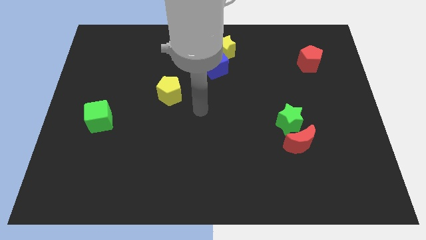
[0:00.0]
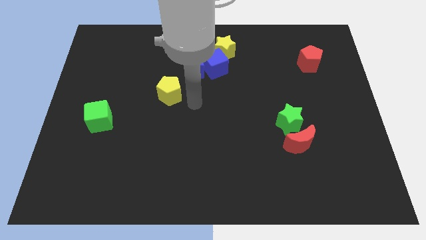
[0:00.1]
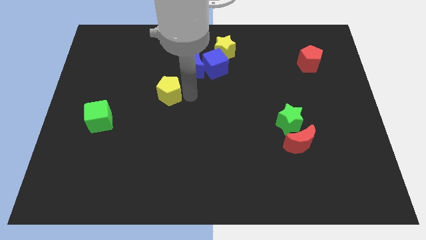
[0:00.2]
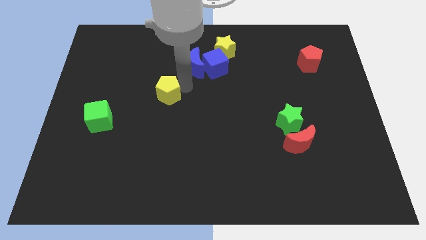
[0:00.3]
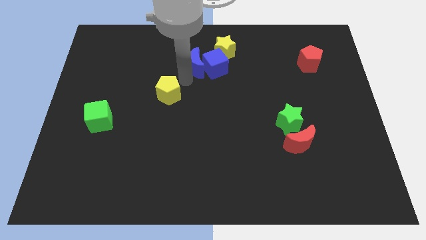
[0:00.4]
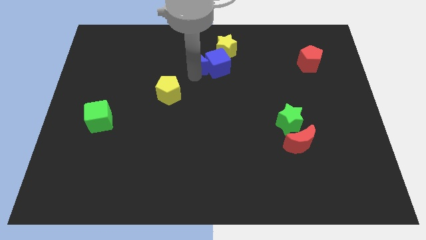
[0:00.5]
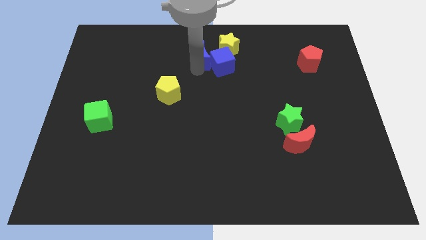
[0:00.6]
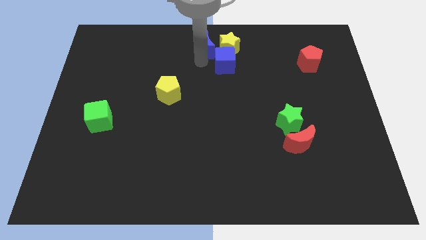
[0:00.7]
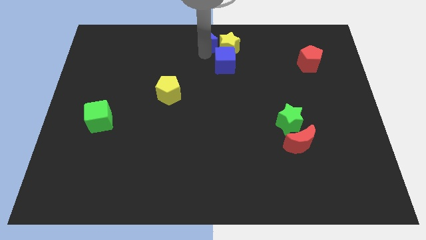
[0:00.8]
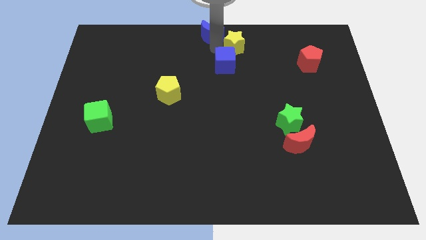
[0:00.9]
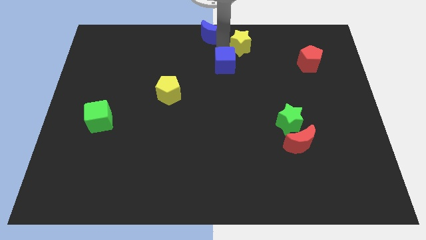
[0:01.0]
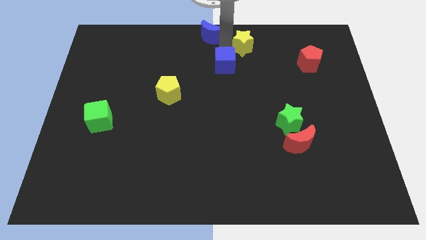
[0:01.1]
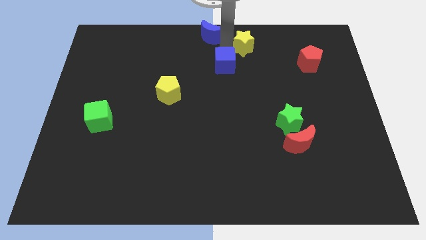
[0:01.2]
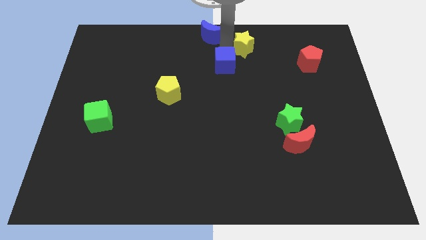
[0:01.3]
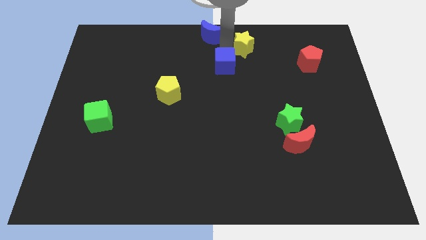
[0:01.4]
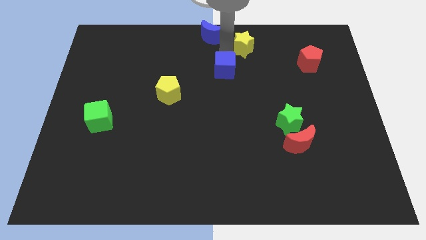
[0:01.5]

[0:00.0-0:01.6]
move the blue cube away from the blue moon and yellow star

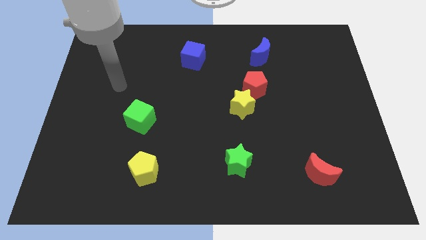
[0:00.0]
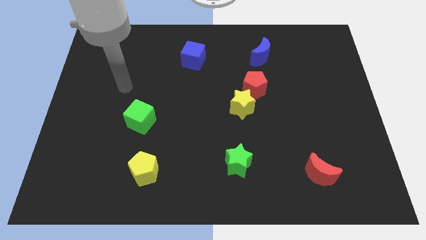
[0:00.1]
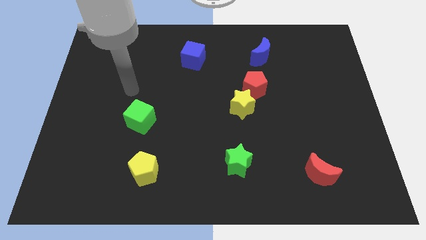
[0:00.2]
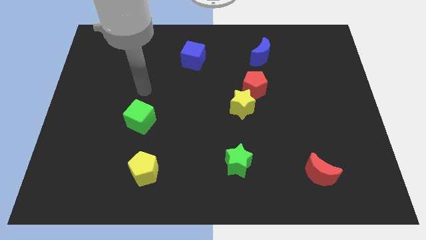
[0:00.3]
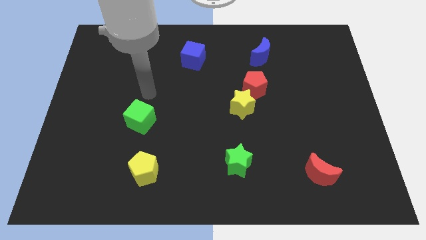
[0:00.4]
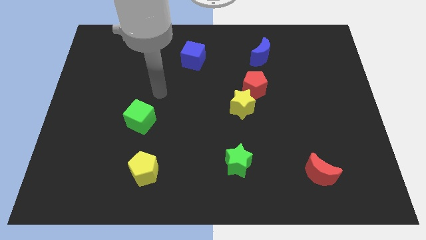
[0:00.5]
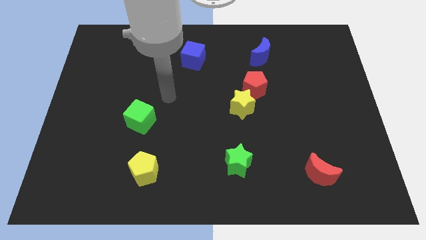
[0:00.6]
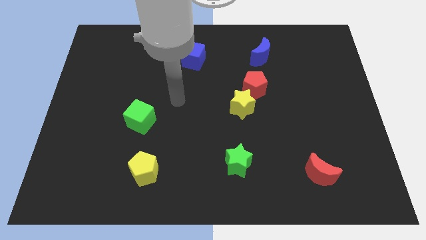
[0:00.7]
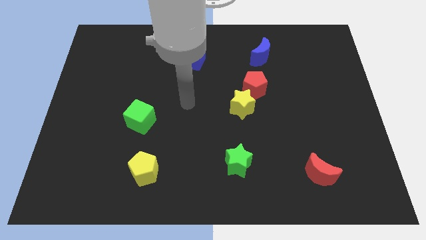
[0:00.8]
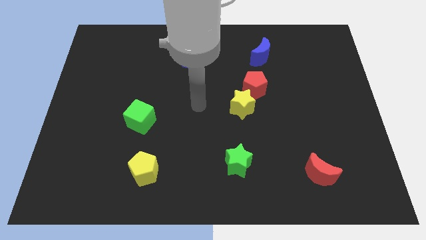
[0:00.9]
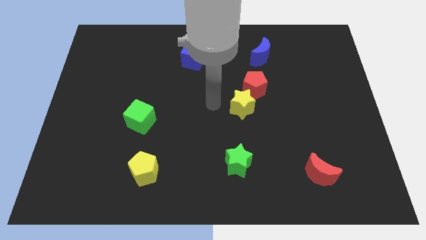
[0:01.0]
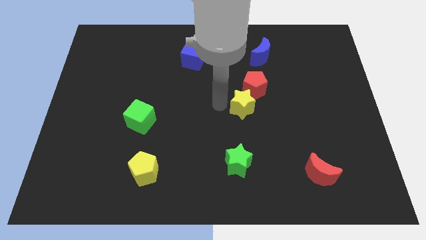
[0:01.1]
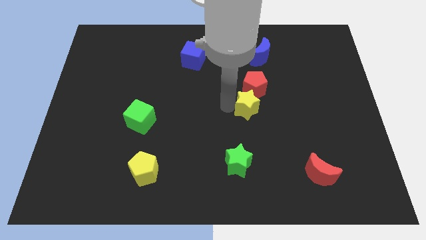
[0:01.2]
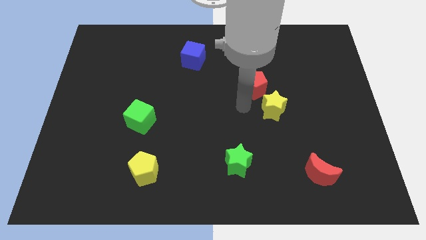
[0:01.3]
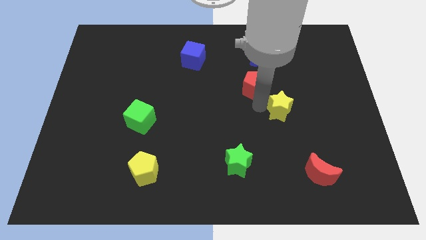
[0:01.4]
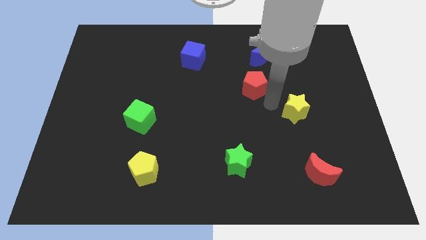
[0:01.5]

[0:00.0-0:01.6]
move the red pentagon away from the yellow star

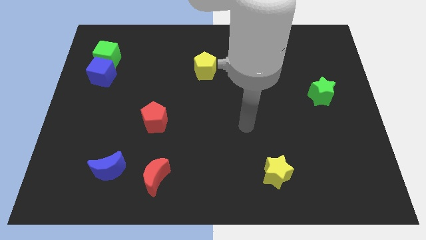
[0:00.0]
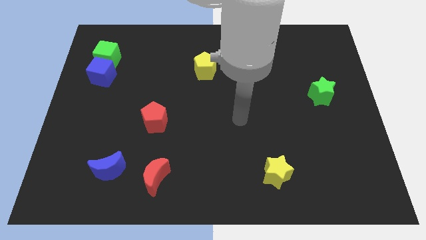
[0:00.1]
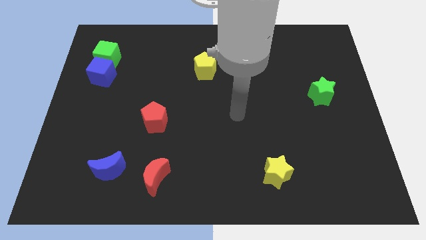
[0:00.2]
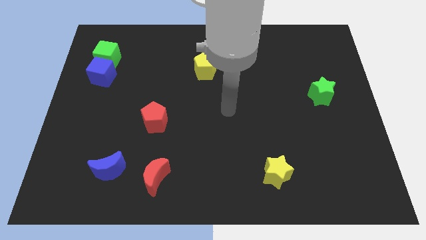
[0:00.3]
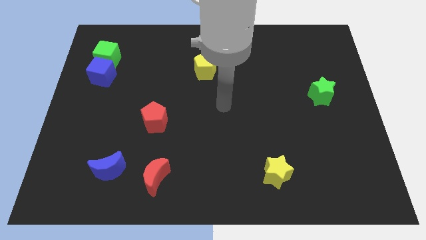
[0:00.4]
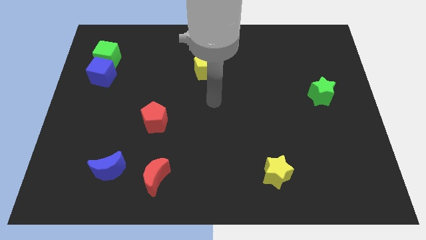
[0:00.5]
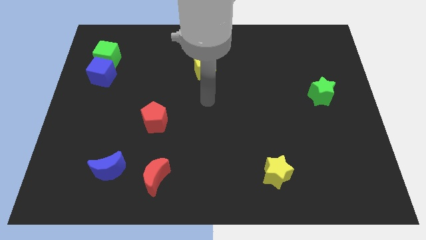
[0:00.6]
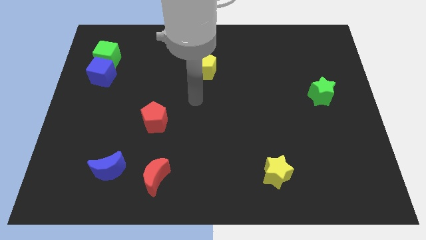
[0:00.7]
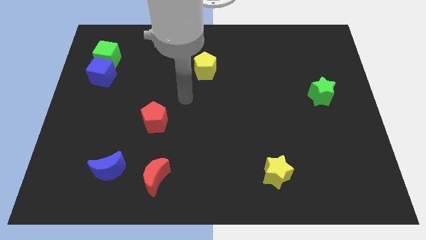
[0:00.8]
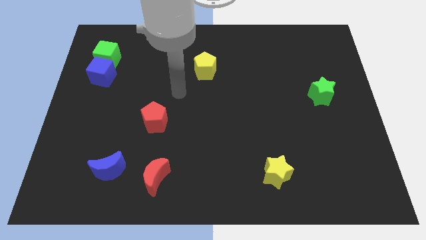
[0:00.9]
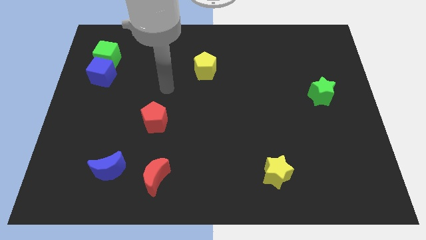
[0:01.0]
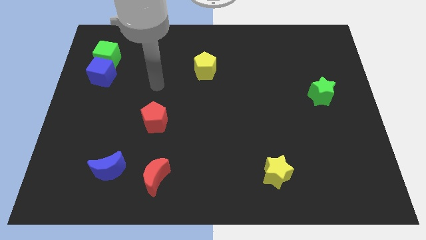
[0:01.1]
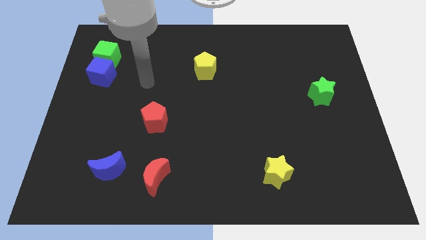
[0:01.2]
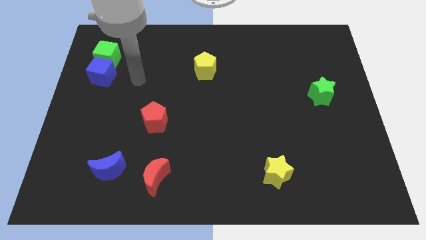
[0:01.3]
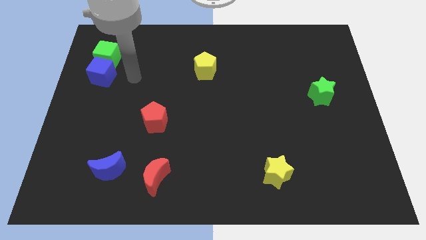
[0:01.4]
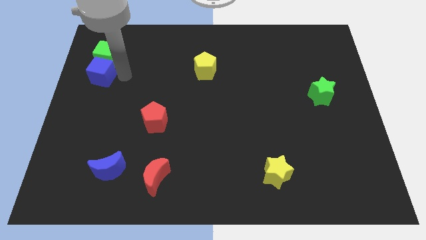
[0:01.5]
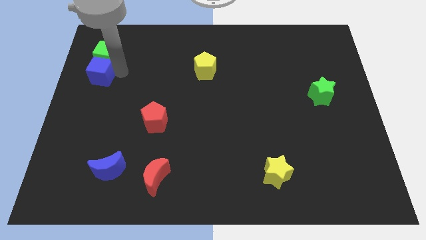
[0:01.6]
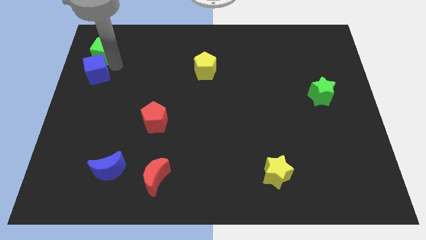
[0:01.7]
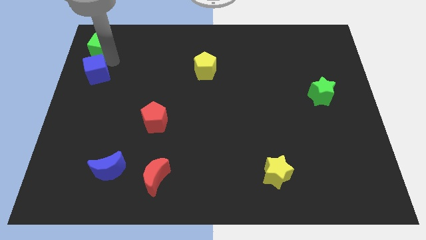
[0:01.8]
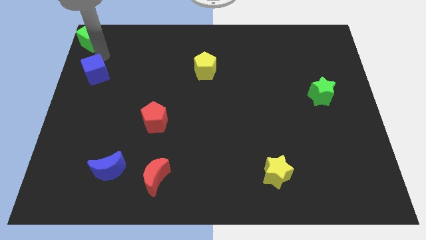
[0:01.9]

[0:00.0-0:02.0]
separate the blue cube from the green cube

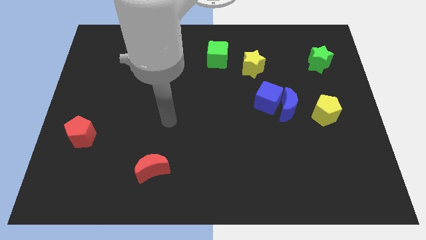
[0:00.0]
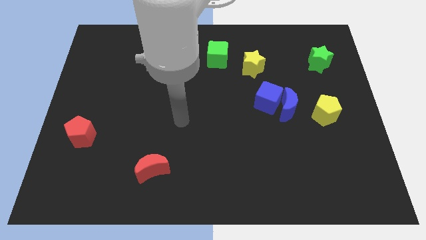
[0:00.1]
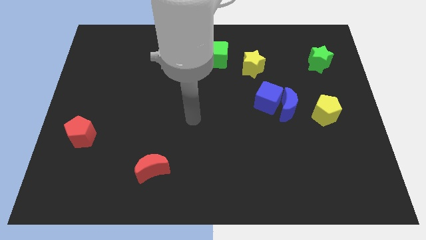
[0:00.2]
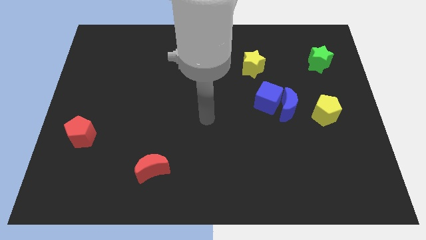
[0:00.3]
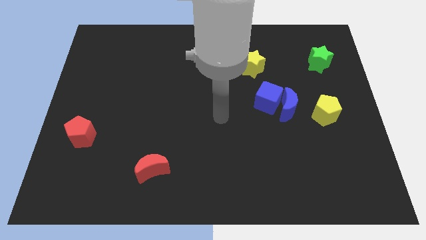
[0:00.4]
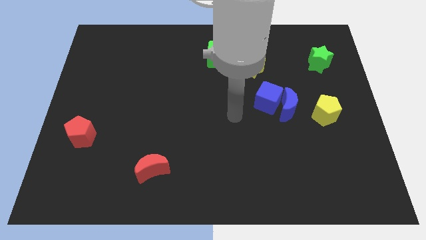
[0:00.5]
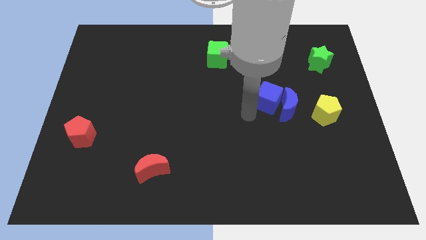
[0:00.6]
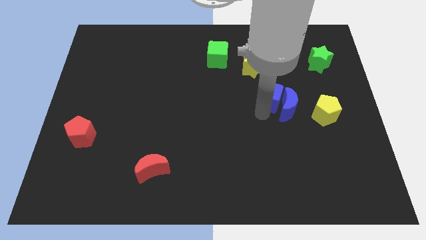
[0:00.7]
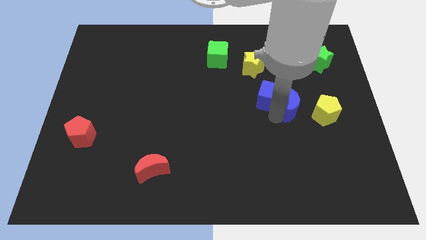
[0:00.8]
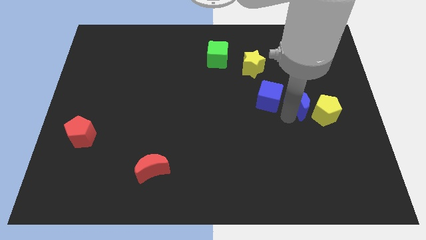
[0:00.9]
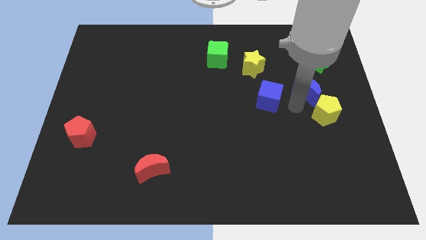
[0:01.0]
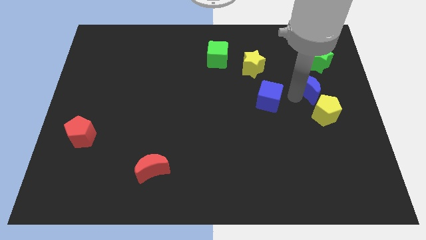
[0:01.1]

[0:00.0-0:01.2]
separate the blue cube from the blue moon

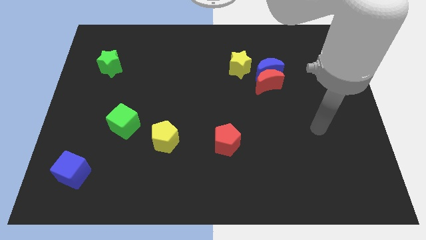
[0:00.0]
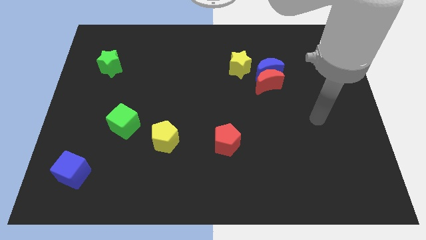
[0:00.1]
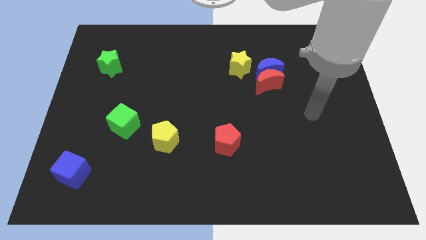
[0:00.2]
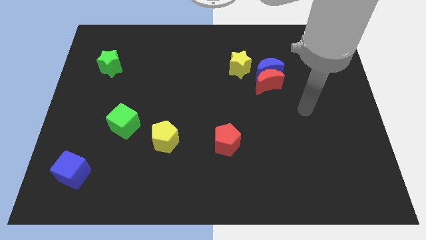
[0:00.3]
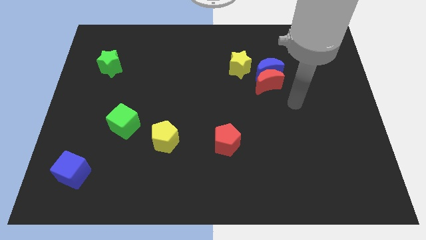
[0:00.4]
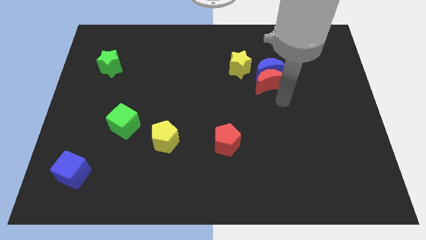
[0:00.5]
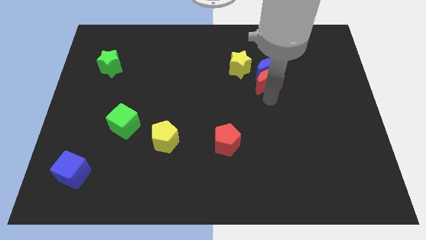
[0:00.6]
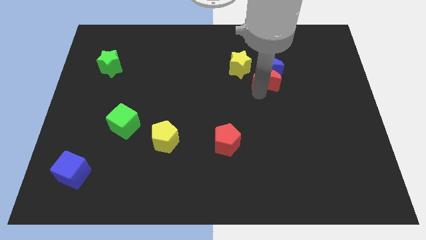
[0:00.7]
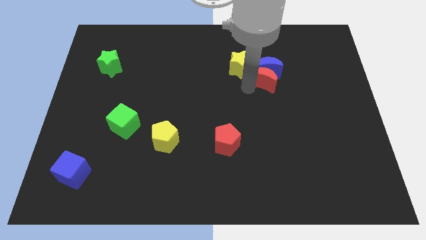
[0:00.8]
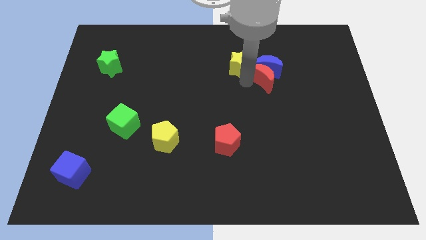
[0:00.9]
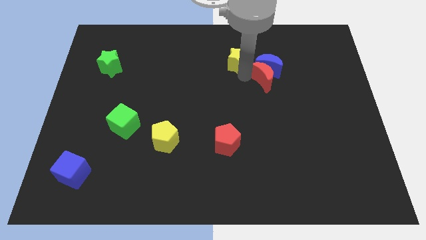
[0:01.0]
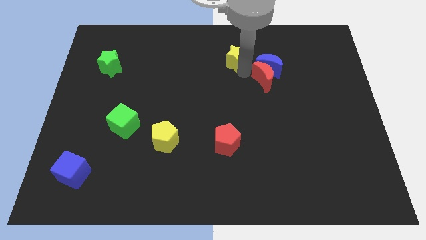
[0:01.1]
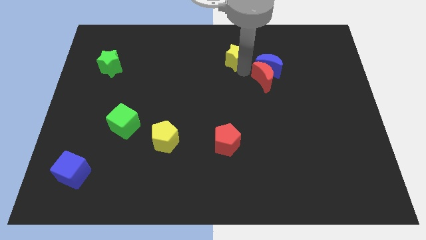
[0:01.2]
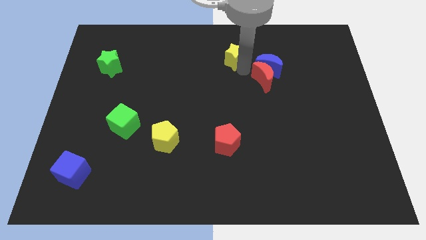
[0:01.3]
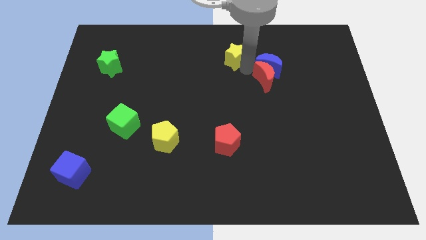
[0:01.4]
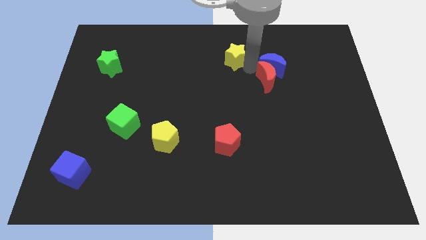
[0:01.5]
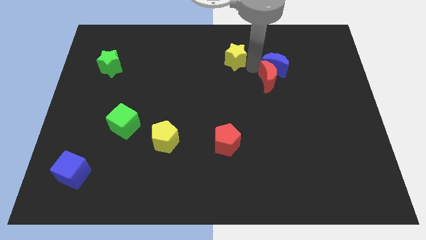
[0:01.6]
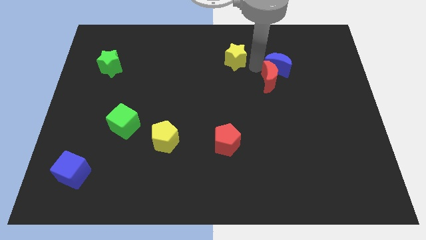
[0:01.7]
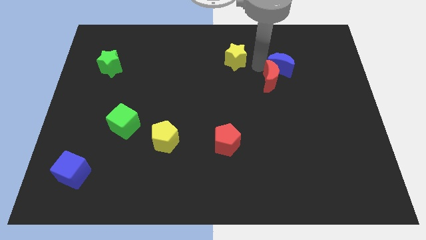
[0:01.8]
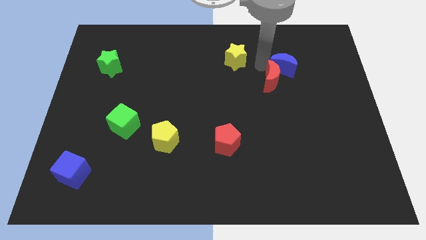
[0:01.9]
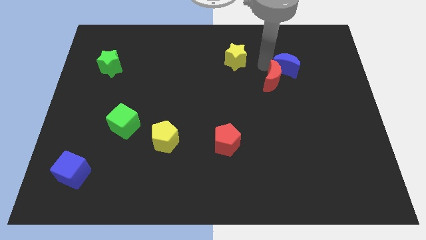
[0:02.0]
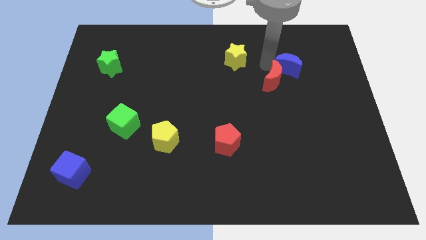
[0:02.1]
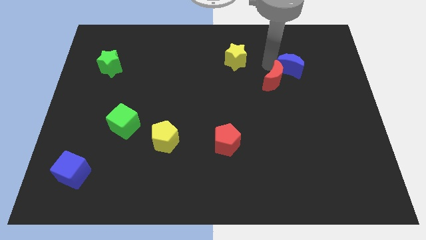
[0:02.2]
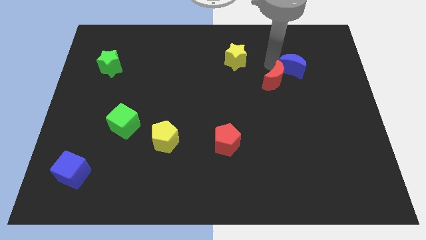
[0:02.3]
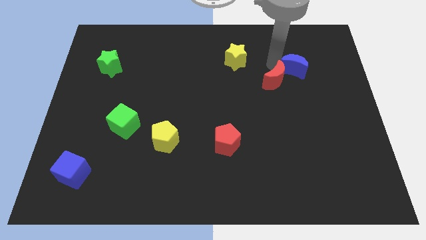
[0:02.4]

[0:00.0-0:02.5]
separate the blue moon from the red moon and yellow star

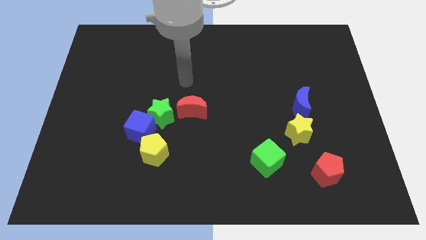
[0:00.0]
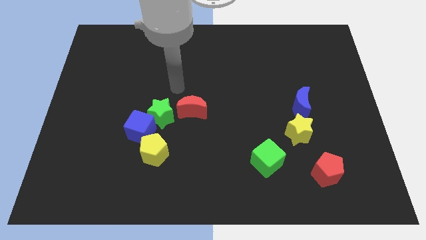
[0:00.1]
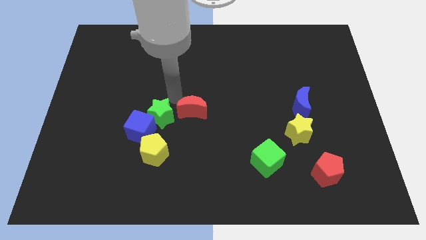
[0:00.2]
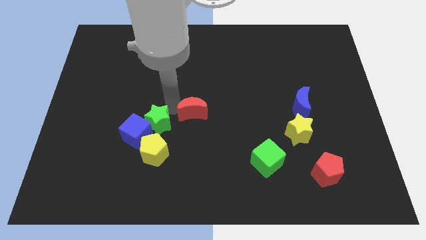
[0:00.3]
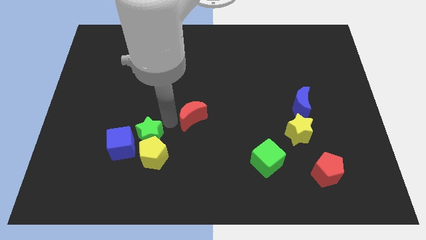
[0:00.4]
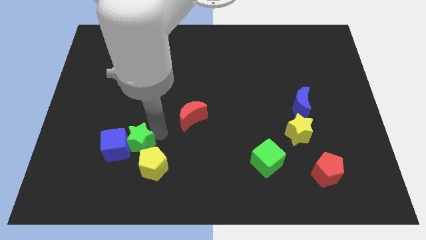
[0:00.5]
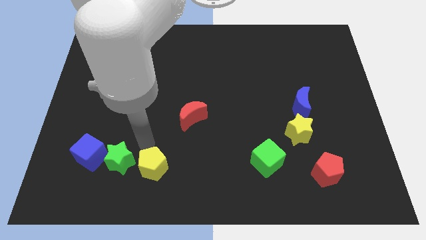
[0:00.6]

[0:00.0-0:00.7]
separate the blue cube from the green star and yellow pentagon
